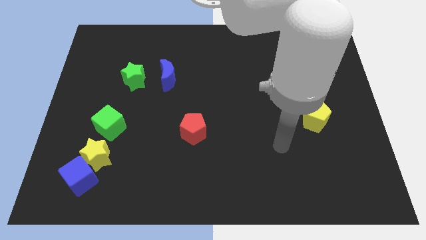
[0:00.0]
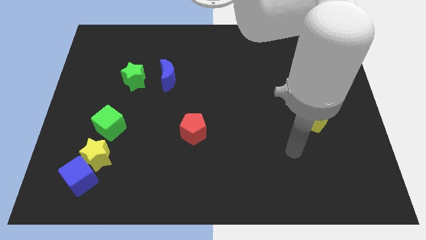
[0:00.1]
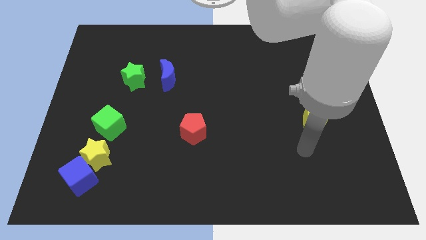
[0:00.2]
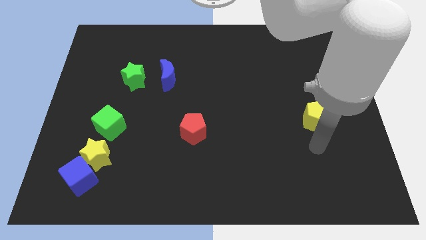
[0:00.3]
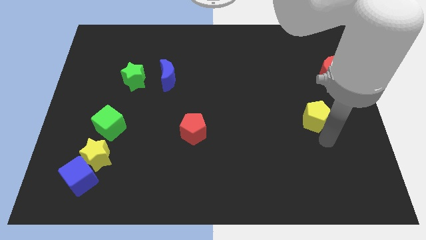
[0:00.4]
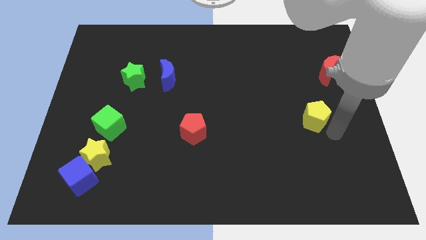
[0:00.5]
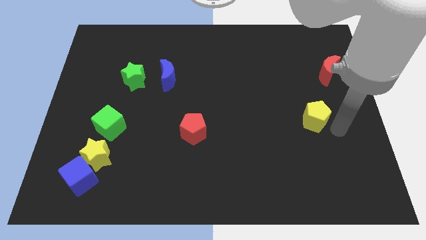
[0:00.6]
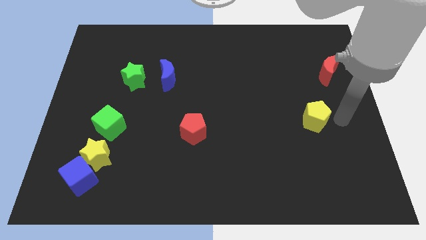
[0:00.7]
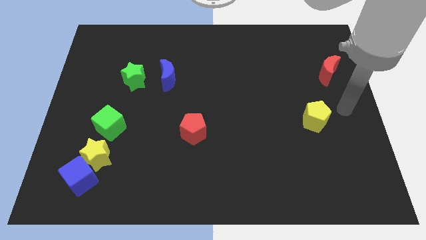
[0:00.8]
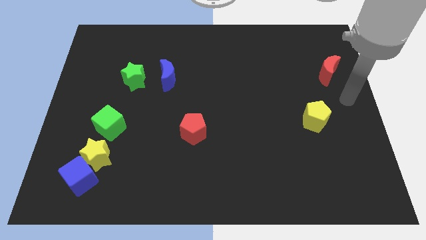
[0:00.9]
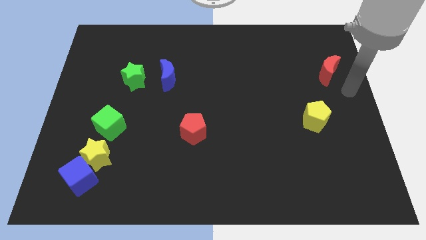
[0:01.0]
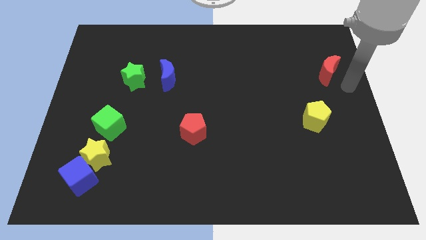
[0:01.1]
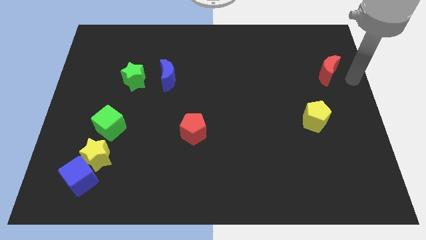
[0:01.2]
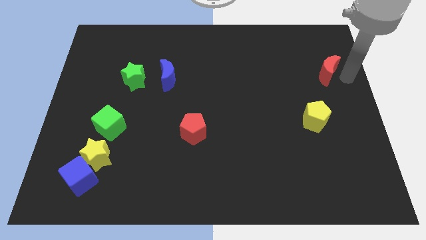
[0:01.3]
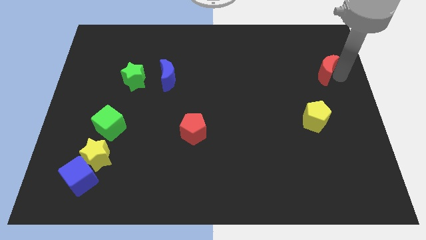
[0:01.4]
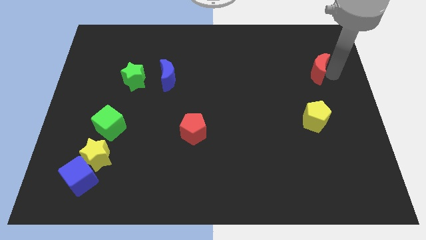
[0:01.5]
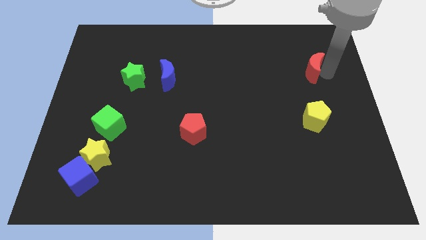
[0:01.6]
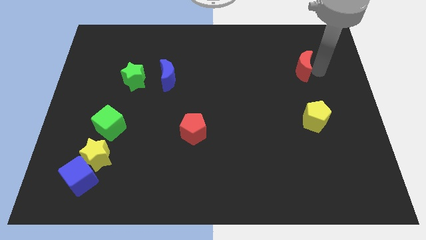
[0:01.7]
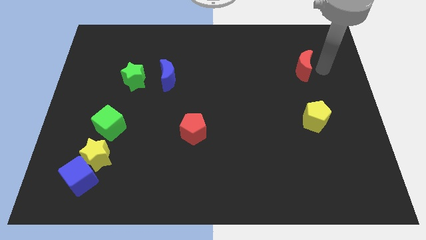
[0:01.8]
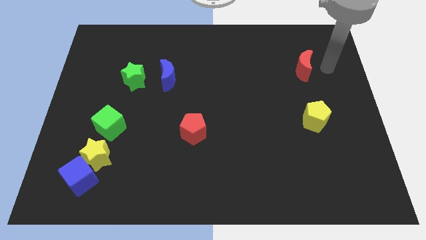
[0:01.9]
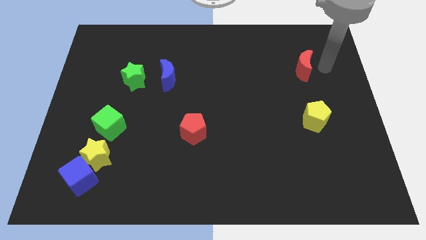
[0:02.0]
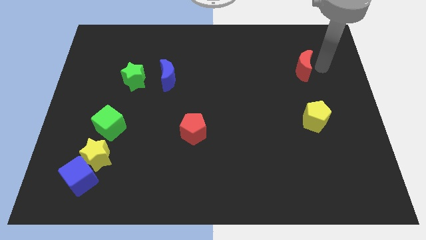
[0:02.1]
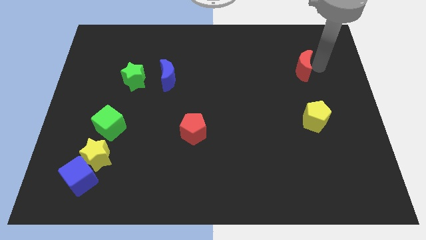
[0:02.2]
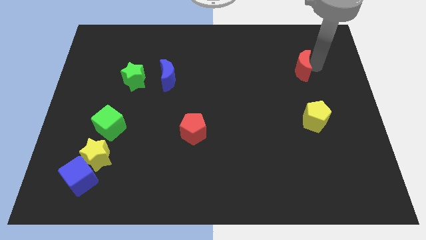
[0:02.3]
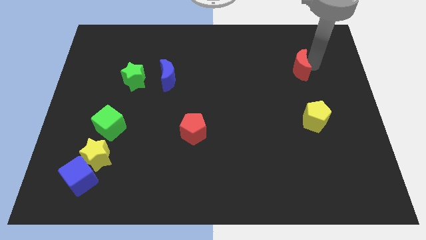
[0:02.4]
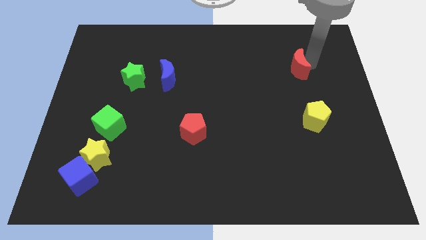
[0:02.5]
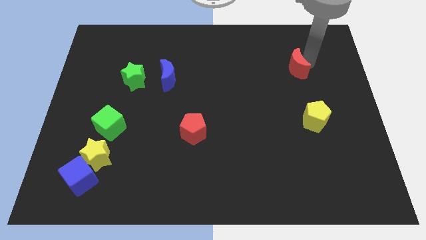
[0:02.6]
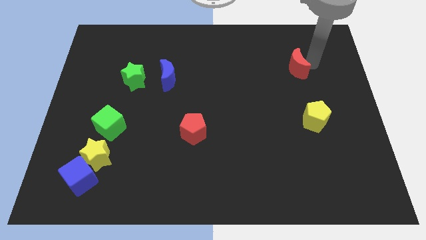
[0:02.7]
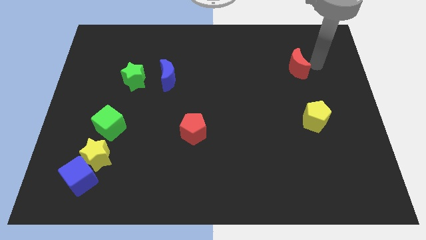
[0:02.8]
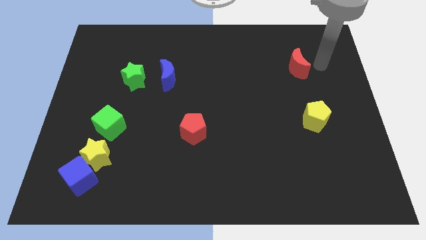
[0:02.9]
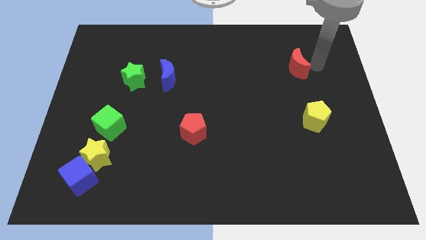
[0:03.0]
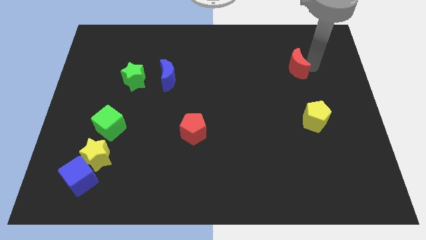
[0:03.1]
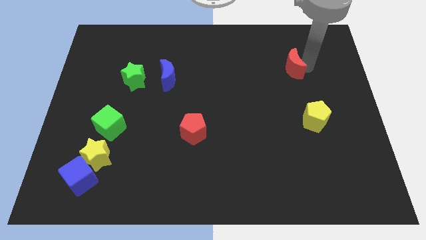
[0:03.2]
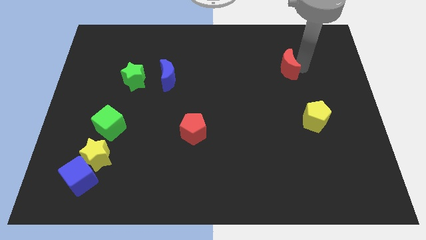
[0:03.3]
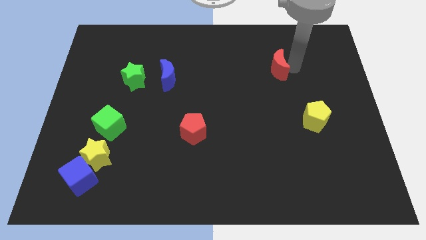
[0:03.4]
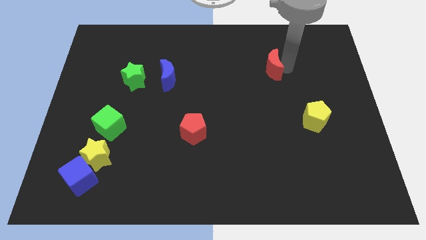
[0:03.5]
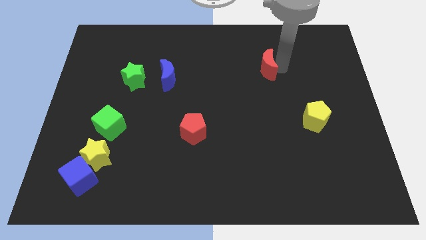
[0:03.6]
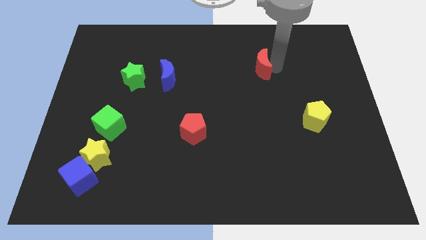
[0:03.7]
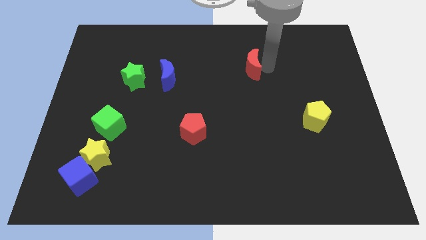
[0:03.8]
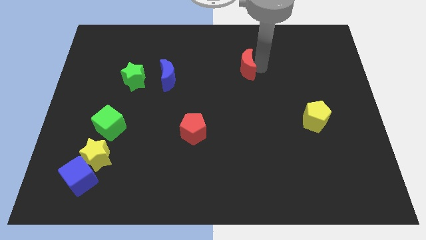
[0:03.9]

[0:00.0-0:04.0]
move the red moon left

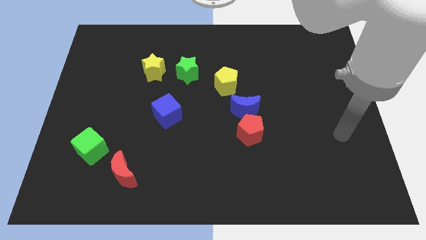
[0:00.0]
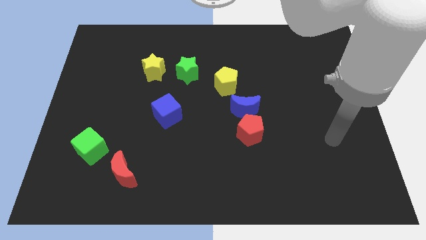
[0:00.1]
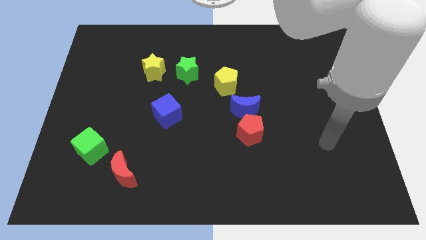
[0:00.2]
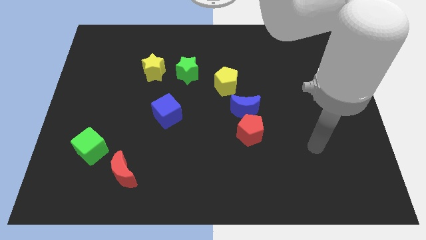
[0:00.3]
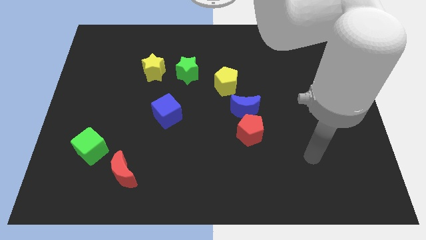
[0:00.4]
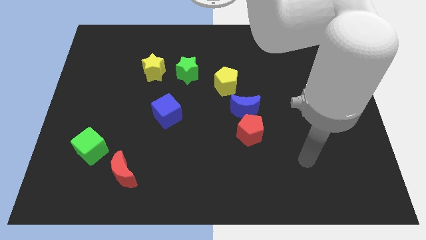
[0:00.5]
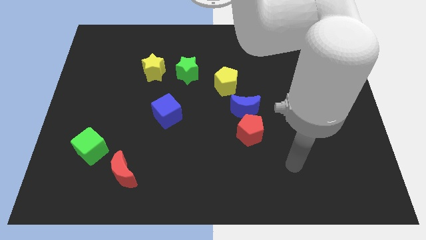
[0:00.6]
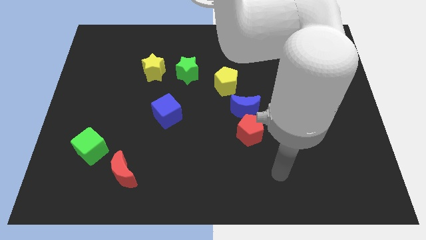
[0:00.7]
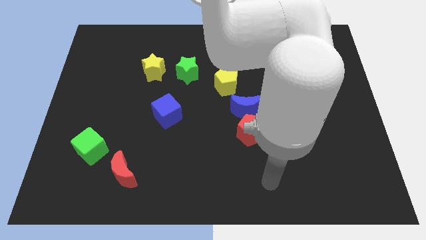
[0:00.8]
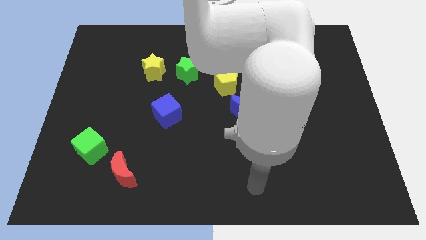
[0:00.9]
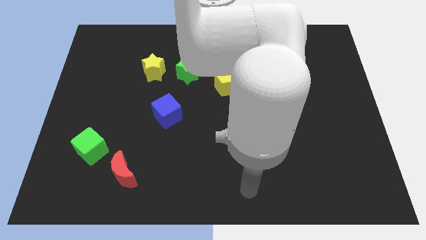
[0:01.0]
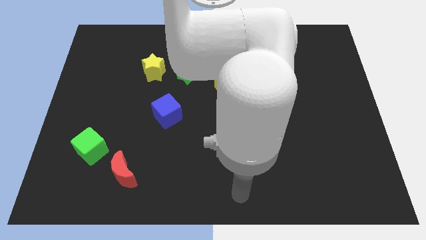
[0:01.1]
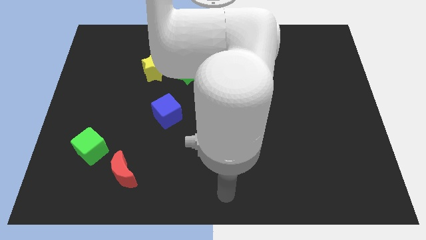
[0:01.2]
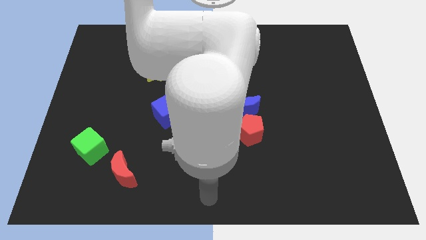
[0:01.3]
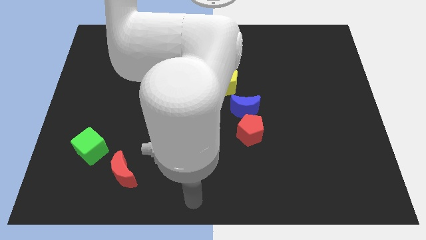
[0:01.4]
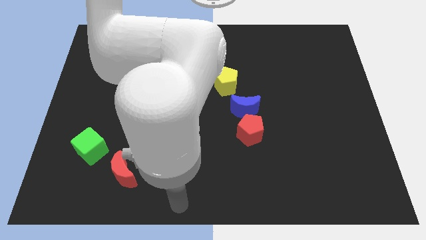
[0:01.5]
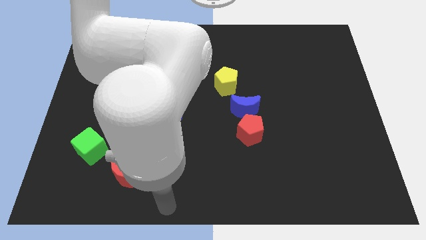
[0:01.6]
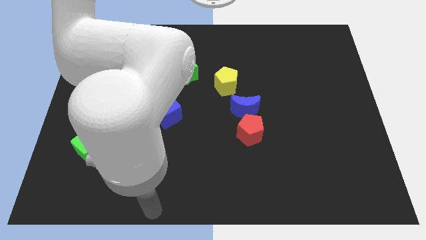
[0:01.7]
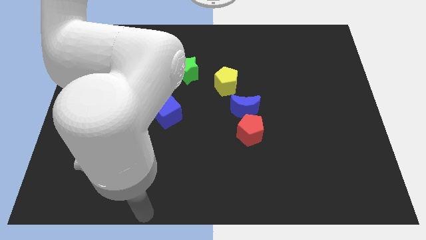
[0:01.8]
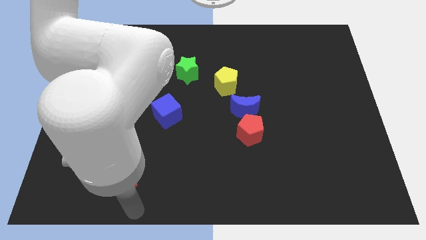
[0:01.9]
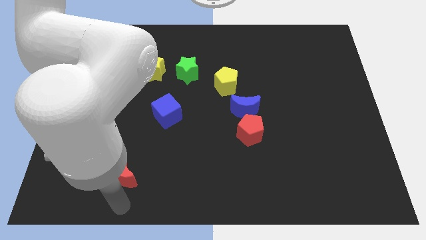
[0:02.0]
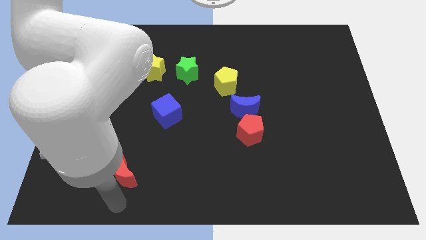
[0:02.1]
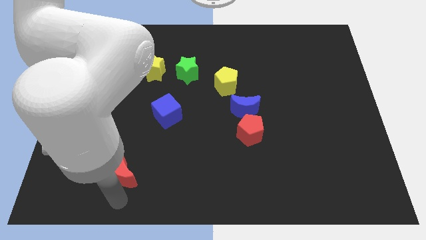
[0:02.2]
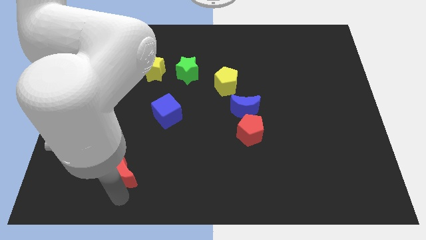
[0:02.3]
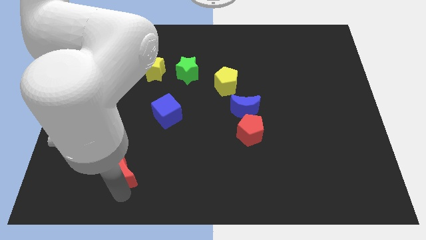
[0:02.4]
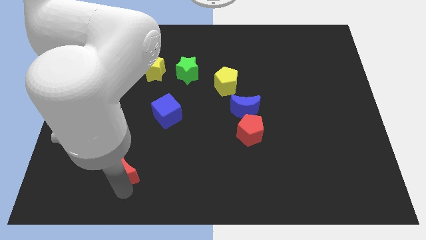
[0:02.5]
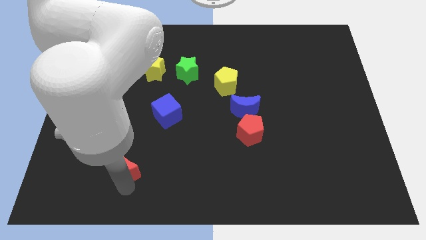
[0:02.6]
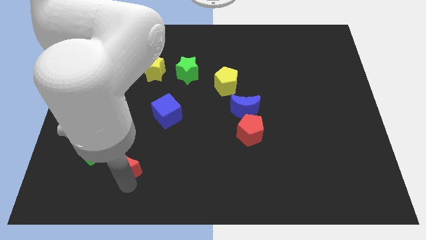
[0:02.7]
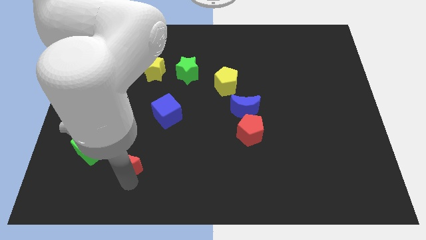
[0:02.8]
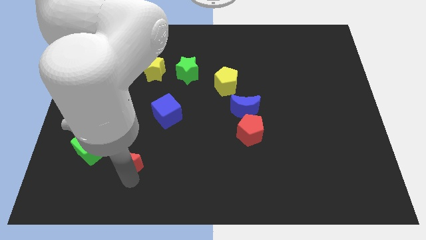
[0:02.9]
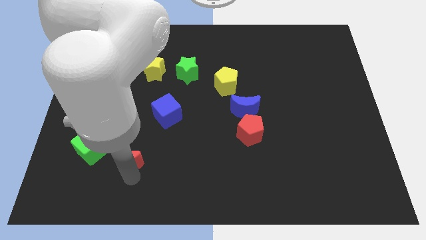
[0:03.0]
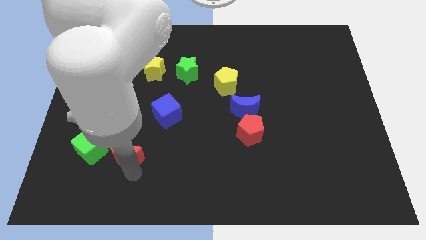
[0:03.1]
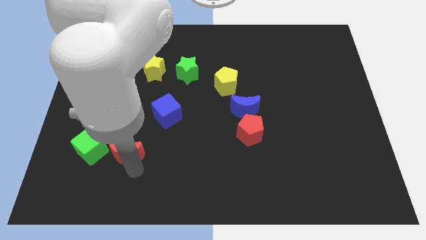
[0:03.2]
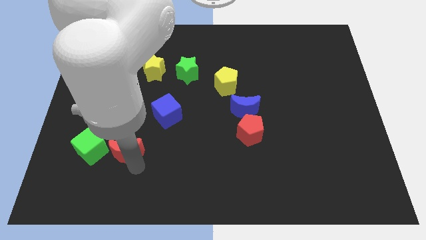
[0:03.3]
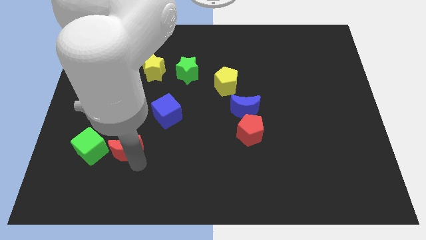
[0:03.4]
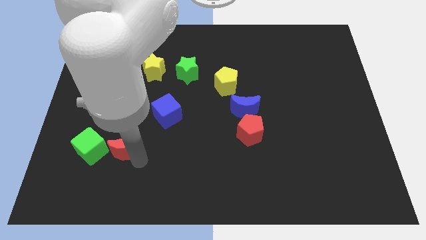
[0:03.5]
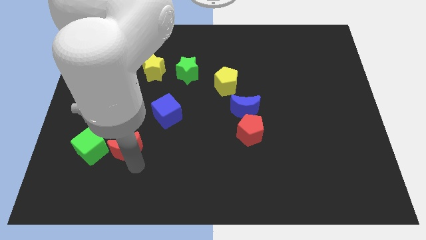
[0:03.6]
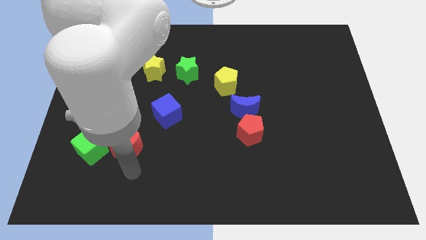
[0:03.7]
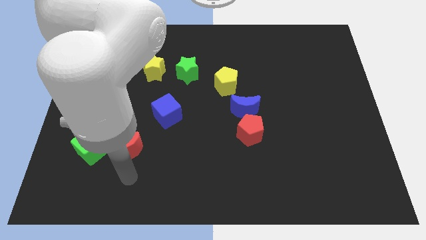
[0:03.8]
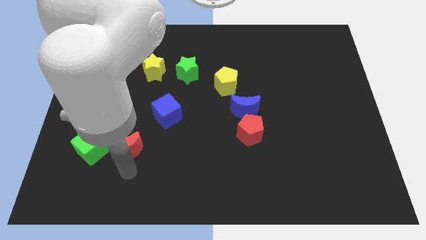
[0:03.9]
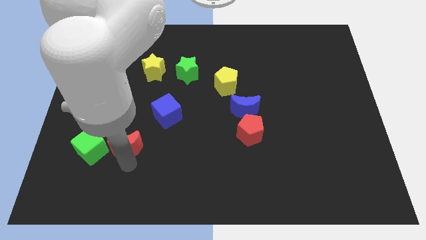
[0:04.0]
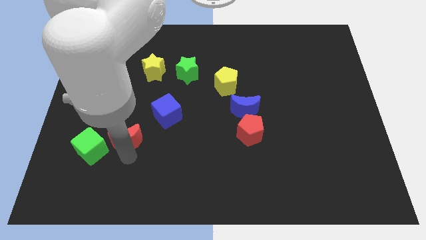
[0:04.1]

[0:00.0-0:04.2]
slightly push the red moon up
